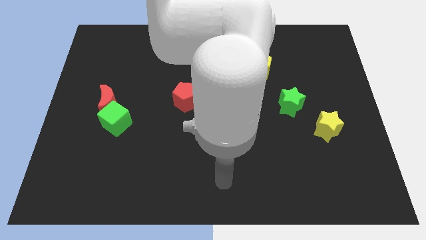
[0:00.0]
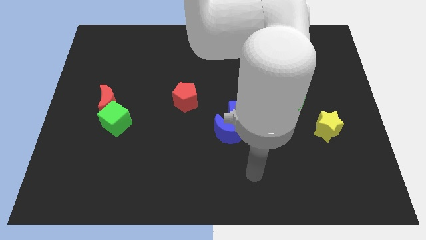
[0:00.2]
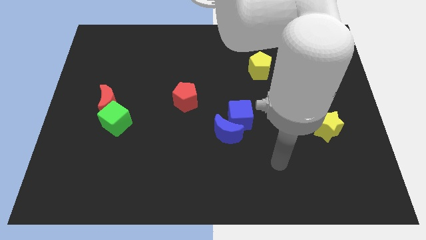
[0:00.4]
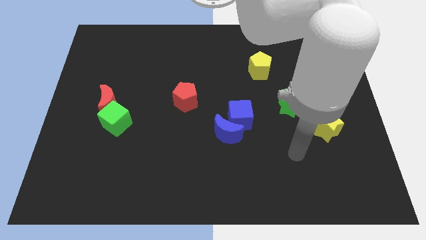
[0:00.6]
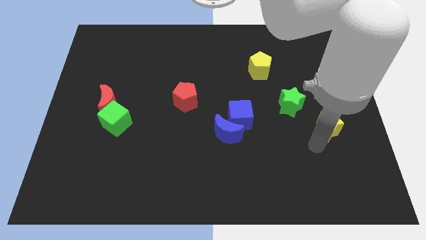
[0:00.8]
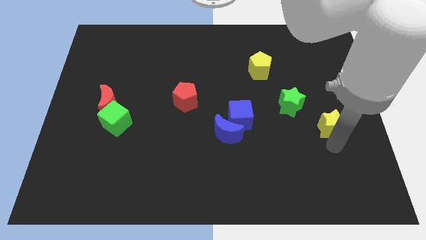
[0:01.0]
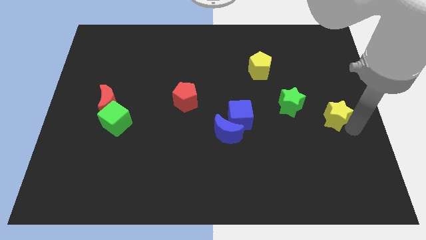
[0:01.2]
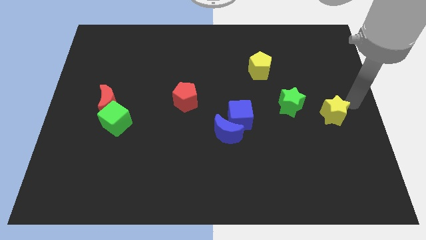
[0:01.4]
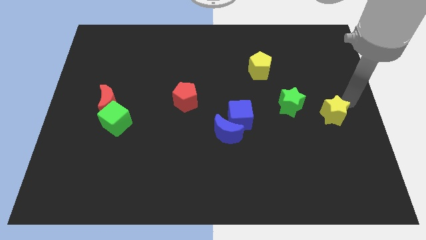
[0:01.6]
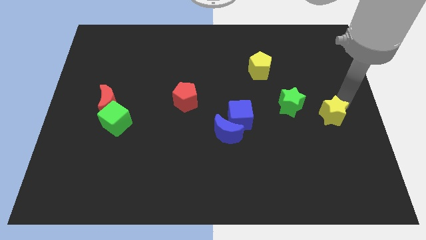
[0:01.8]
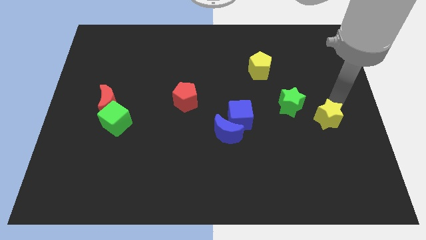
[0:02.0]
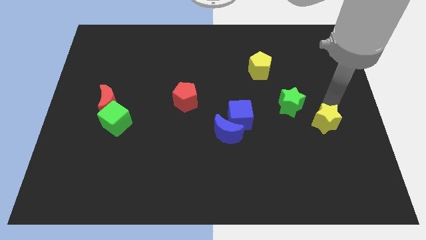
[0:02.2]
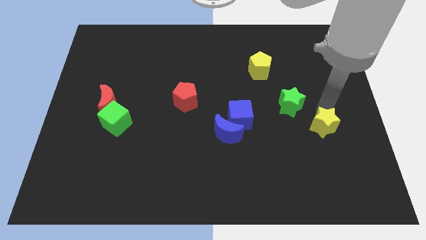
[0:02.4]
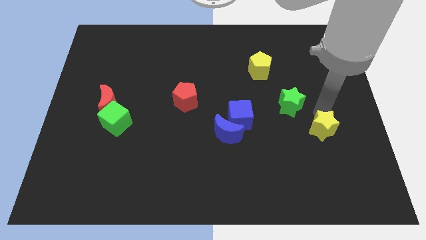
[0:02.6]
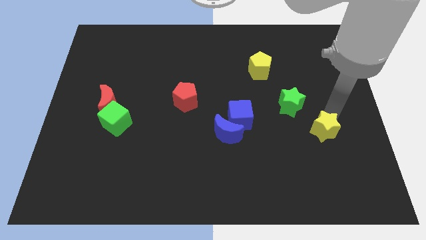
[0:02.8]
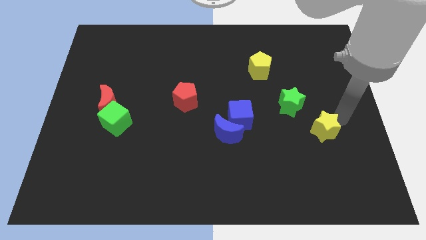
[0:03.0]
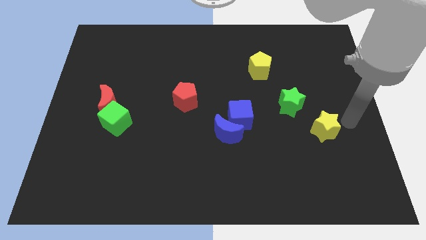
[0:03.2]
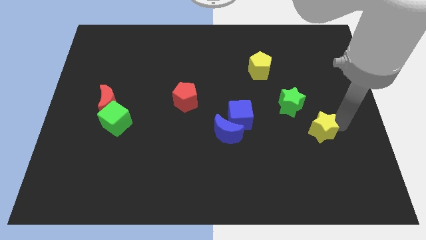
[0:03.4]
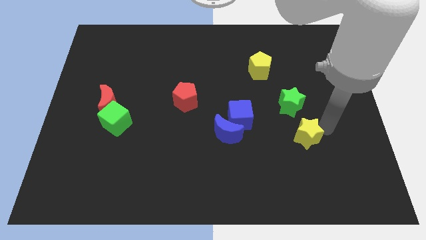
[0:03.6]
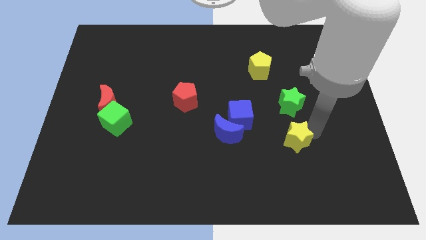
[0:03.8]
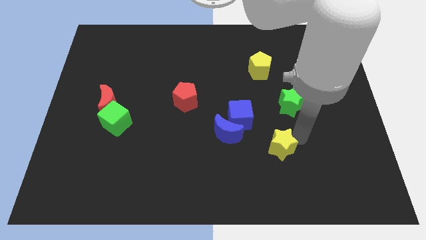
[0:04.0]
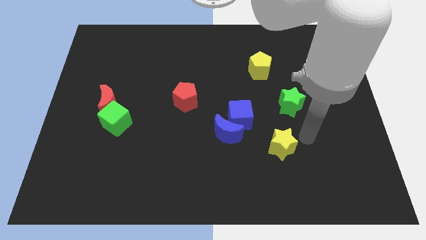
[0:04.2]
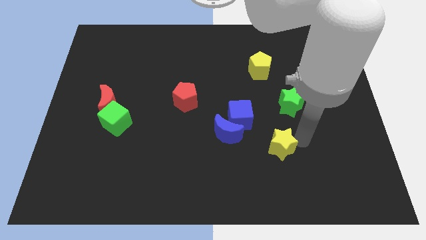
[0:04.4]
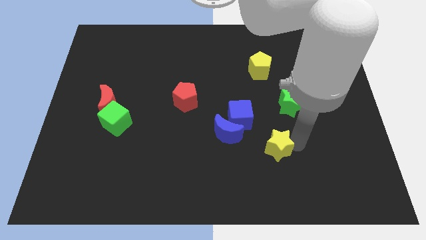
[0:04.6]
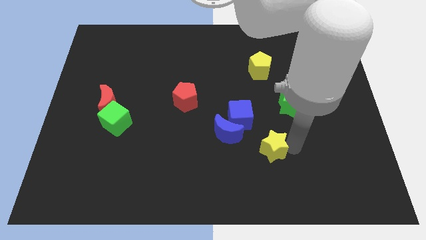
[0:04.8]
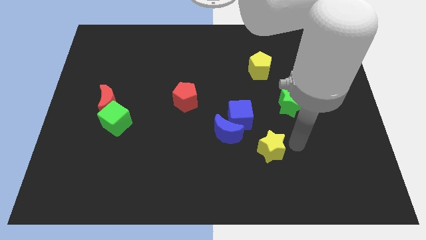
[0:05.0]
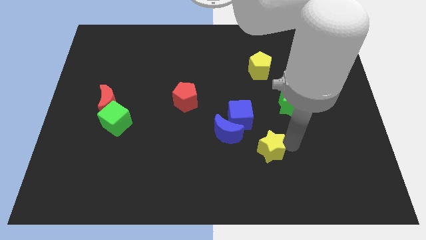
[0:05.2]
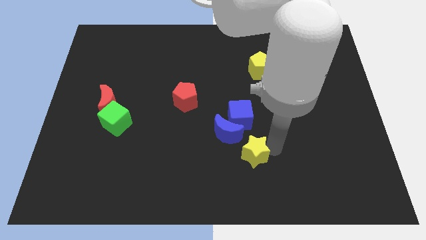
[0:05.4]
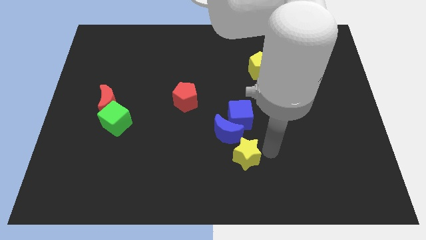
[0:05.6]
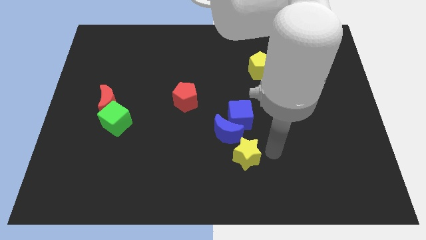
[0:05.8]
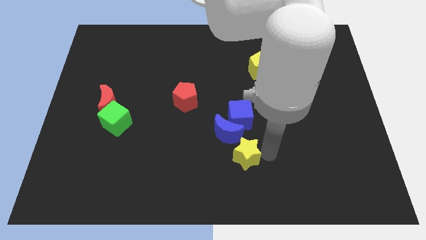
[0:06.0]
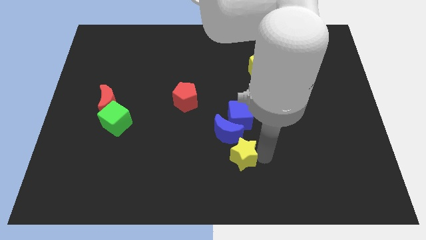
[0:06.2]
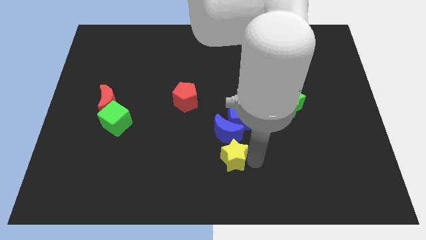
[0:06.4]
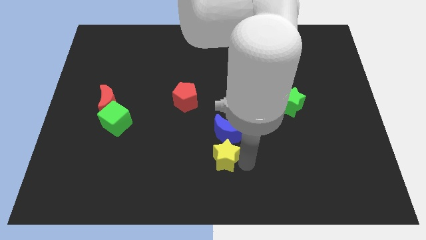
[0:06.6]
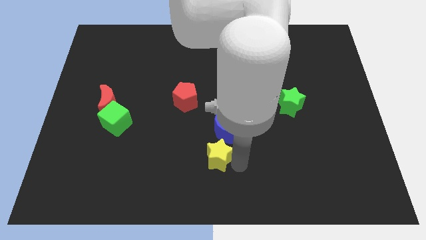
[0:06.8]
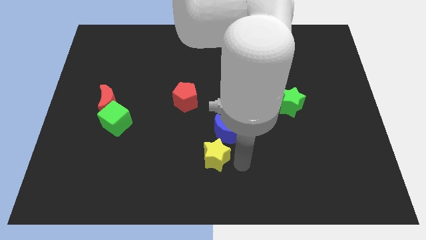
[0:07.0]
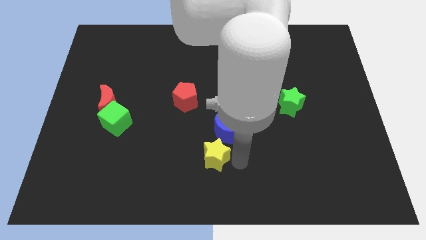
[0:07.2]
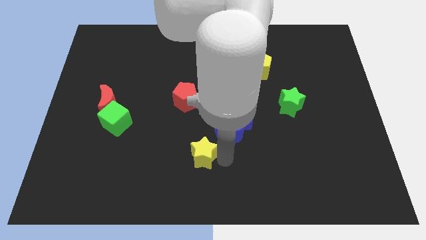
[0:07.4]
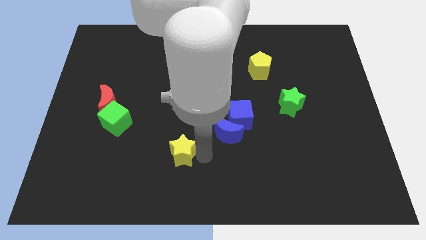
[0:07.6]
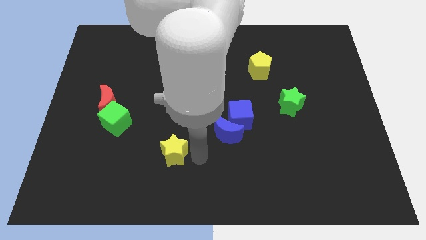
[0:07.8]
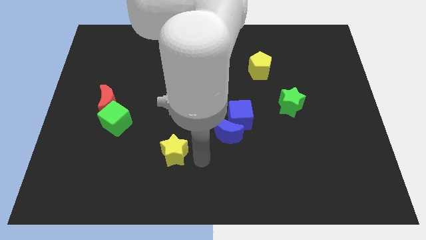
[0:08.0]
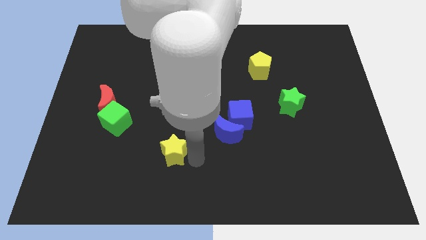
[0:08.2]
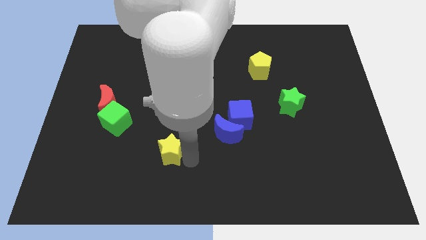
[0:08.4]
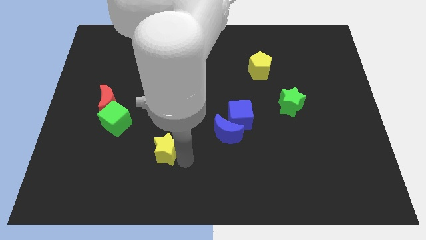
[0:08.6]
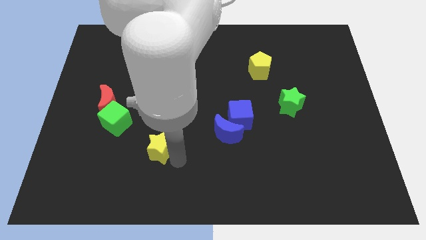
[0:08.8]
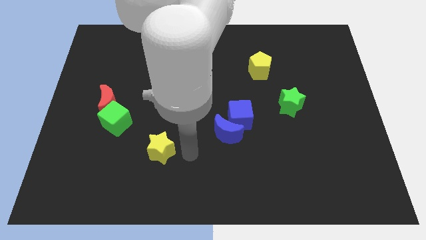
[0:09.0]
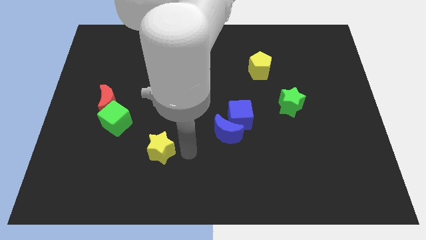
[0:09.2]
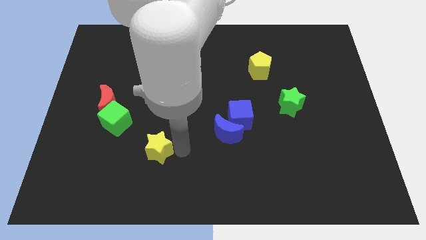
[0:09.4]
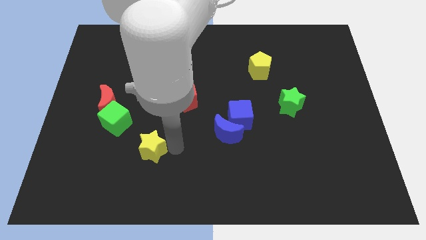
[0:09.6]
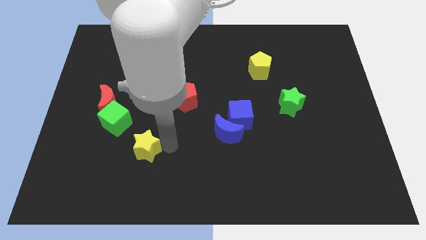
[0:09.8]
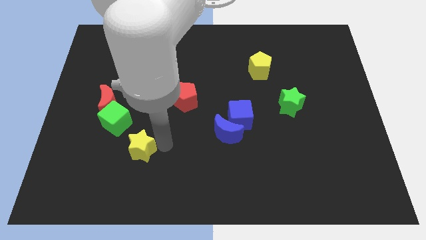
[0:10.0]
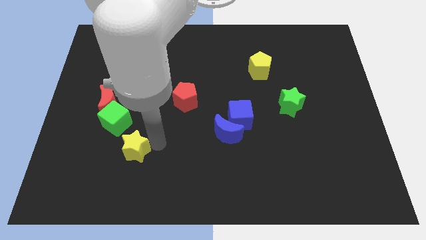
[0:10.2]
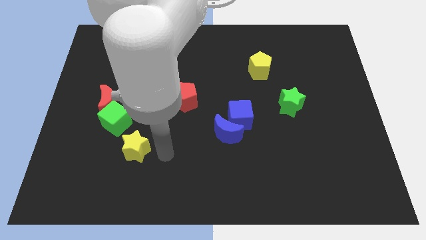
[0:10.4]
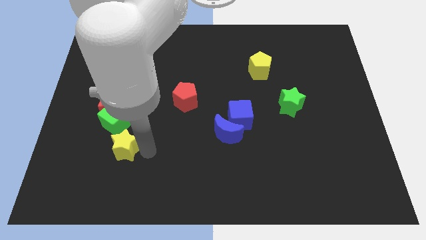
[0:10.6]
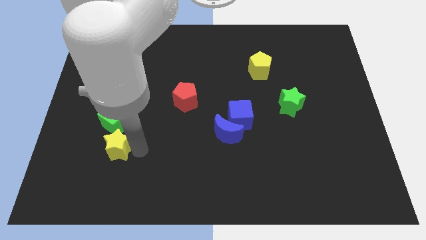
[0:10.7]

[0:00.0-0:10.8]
move the yellow star below the red moon

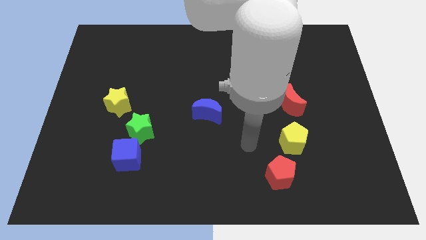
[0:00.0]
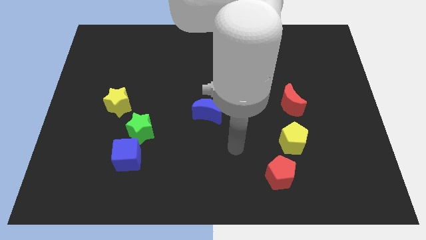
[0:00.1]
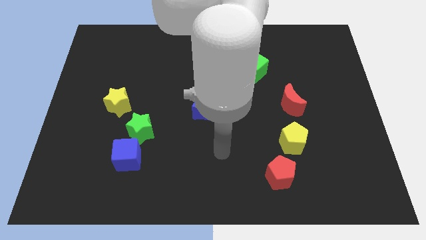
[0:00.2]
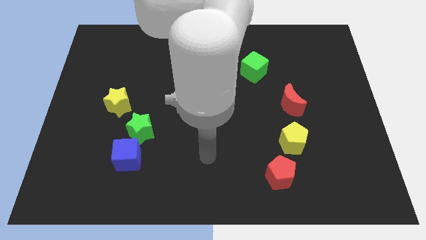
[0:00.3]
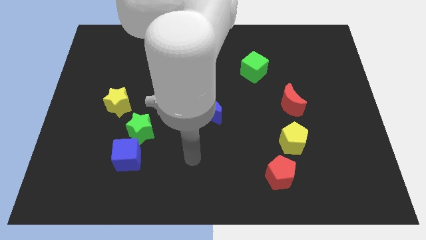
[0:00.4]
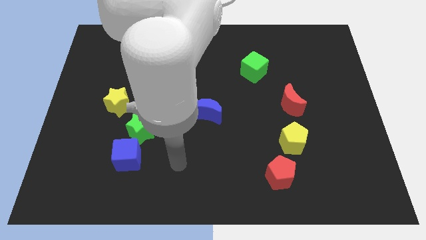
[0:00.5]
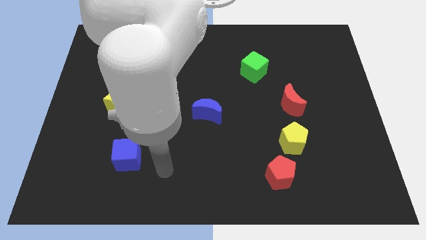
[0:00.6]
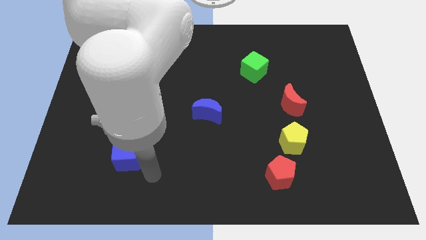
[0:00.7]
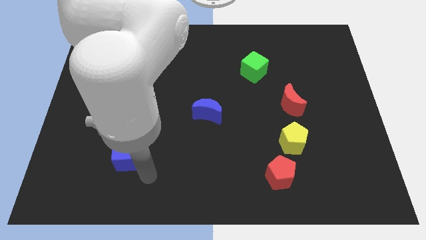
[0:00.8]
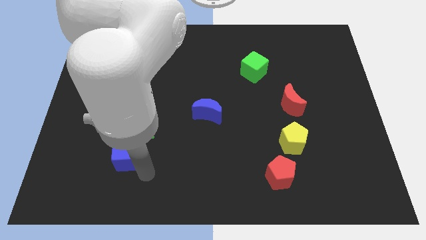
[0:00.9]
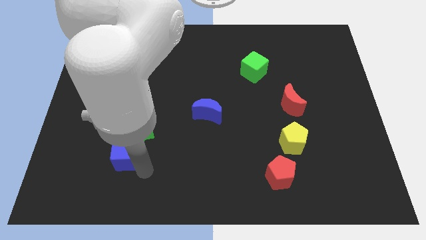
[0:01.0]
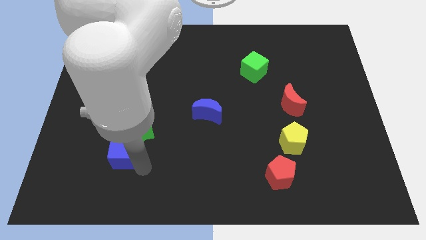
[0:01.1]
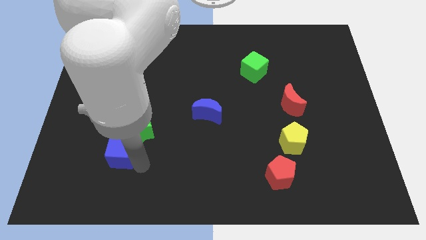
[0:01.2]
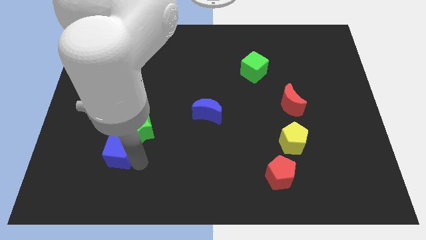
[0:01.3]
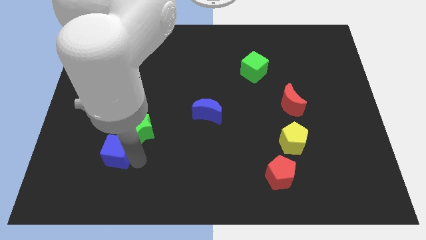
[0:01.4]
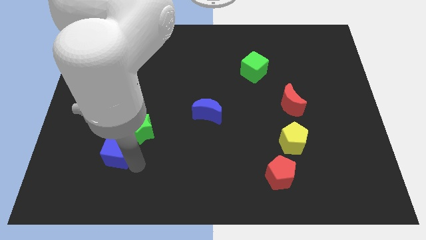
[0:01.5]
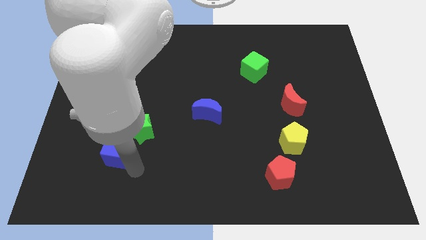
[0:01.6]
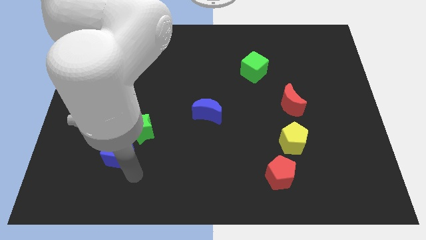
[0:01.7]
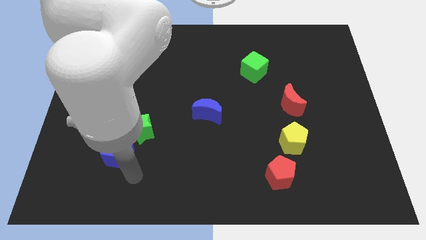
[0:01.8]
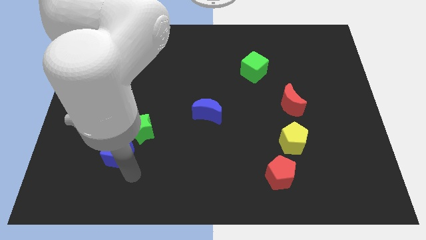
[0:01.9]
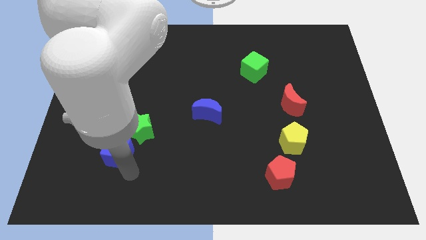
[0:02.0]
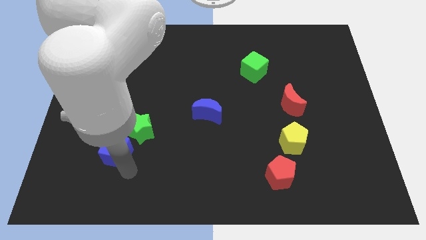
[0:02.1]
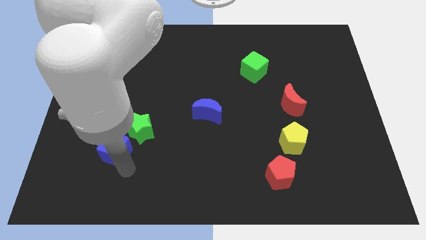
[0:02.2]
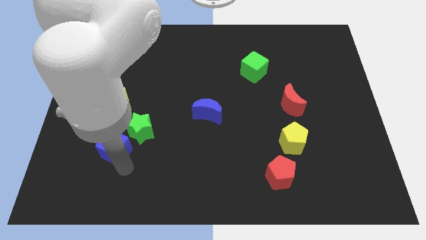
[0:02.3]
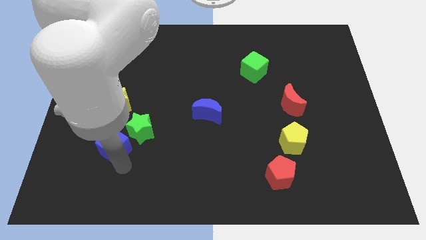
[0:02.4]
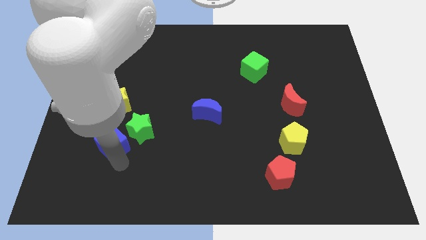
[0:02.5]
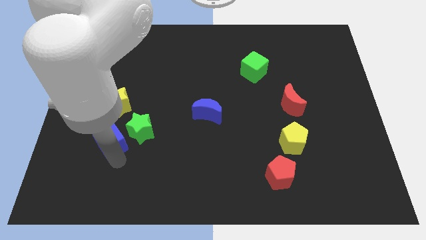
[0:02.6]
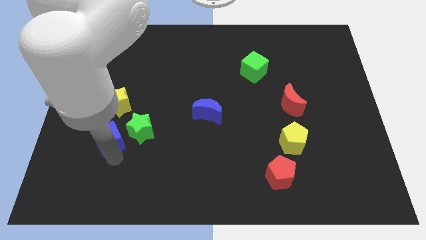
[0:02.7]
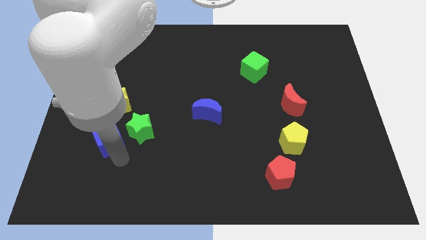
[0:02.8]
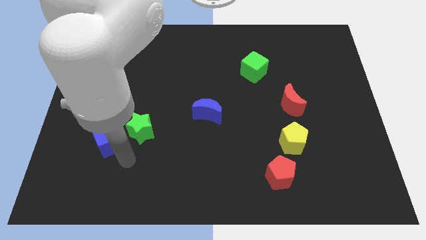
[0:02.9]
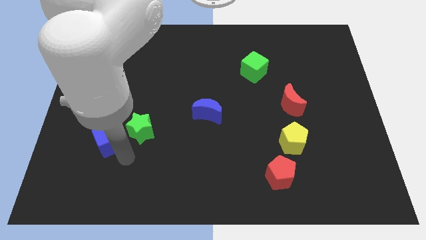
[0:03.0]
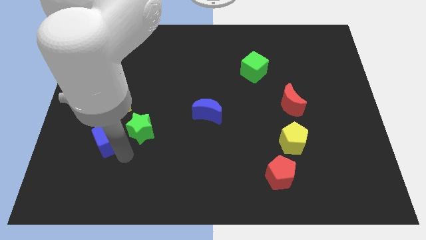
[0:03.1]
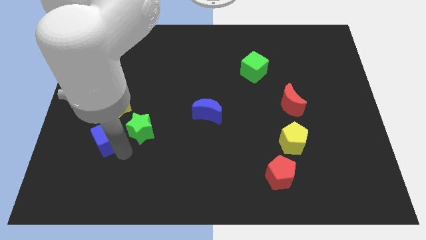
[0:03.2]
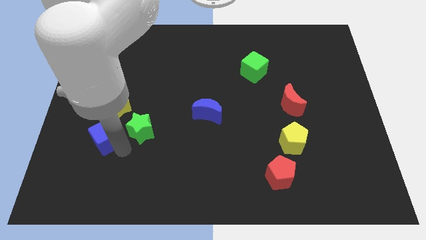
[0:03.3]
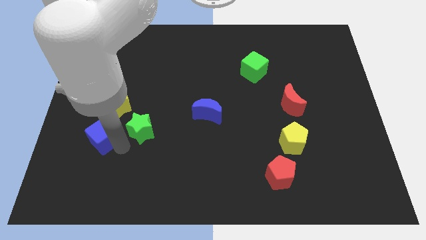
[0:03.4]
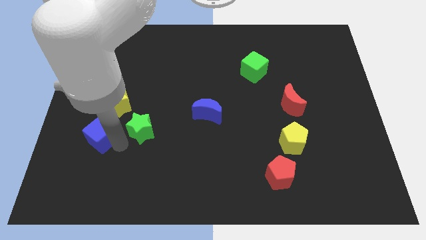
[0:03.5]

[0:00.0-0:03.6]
slide the blue cube to the bottom left of the yellow star
